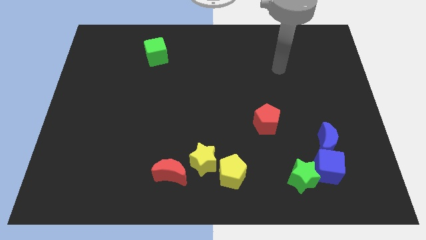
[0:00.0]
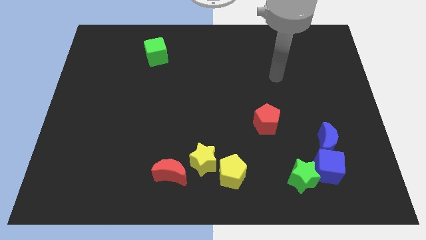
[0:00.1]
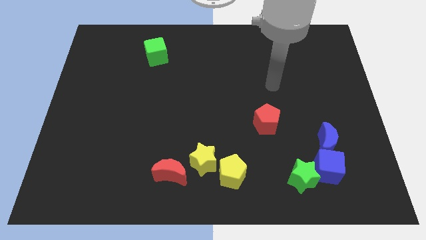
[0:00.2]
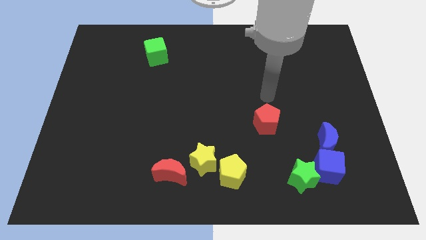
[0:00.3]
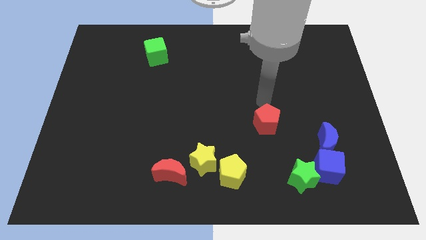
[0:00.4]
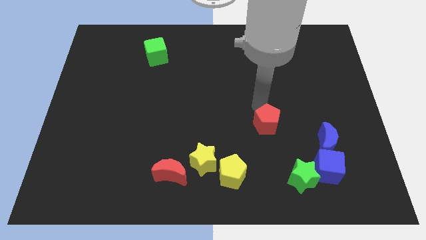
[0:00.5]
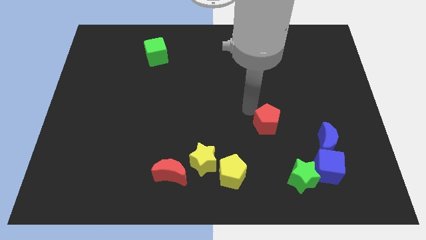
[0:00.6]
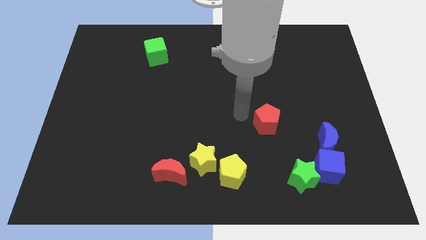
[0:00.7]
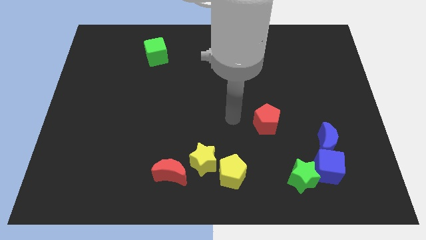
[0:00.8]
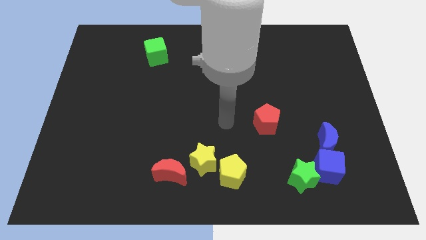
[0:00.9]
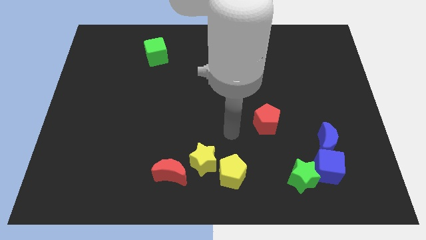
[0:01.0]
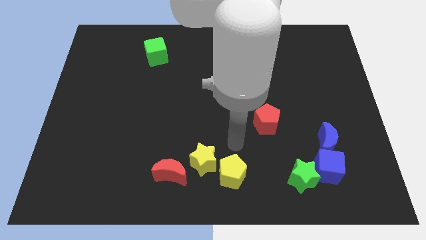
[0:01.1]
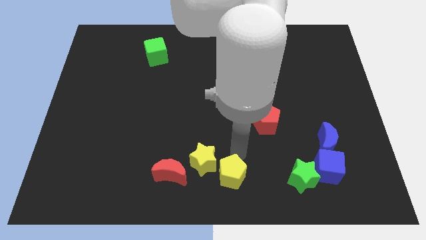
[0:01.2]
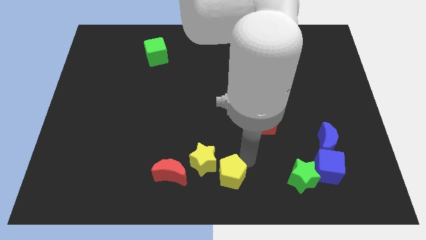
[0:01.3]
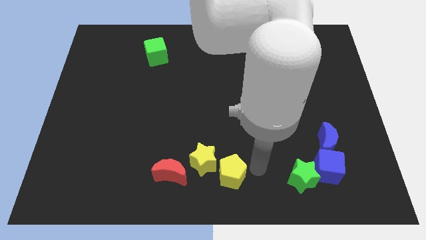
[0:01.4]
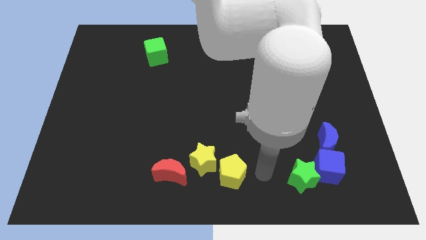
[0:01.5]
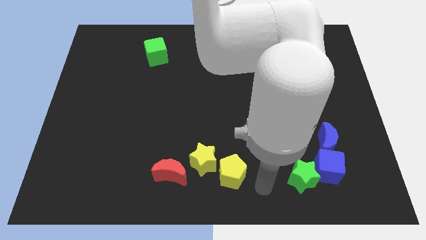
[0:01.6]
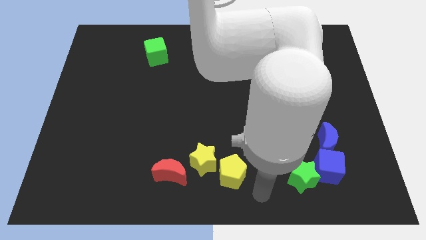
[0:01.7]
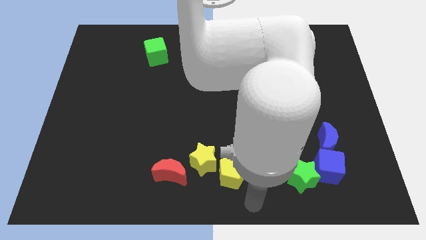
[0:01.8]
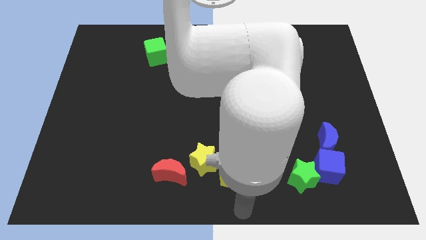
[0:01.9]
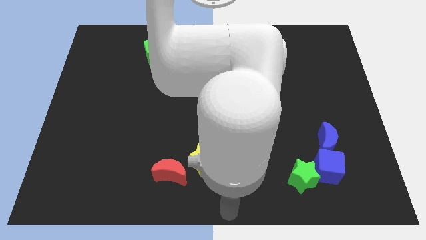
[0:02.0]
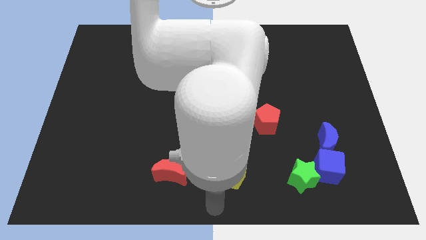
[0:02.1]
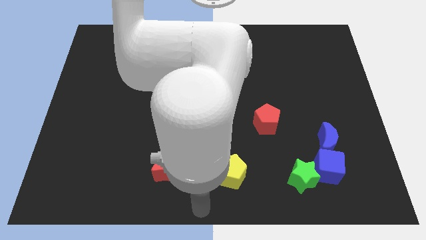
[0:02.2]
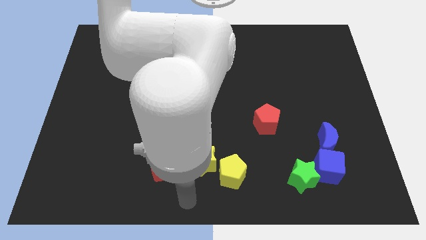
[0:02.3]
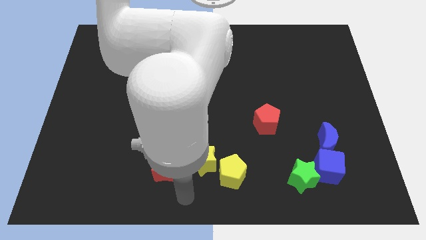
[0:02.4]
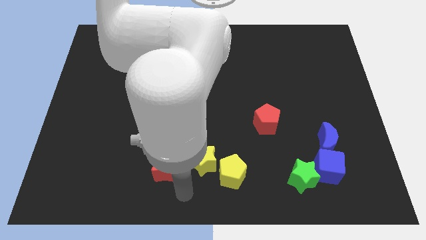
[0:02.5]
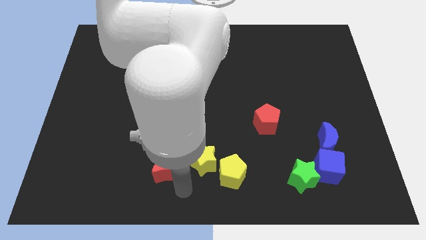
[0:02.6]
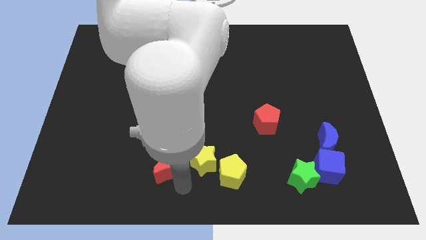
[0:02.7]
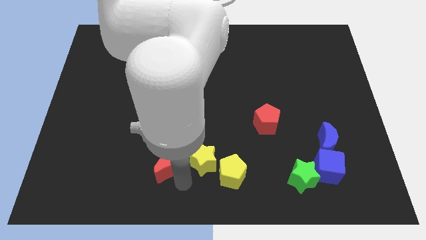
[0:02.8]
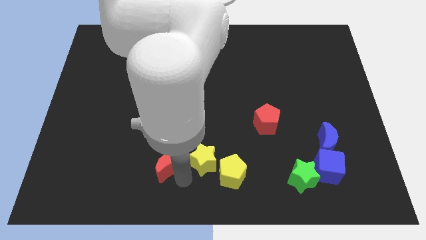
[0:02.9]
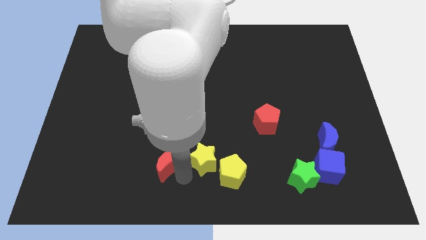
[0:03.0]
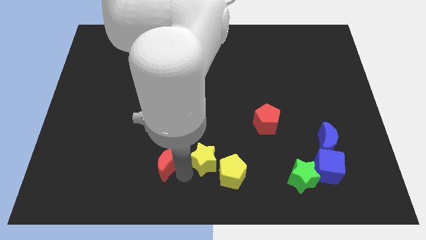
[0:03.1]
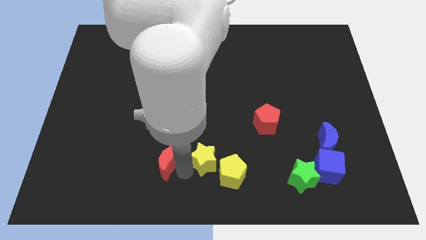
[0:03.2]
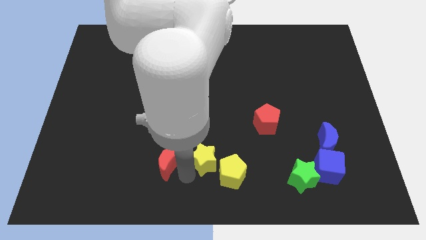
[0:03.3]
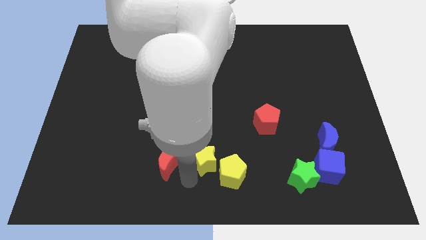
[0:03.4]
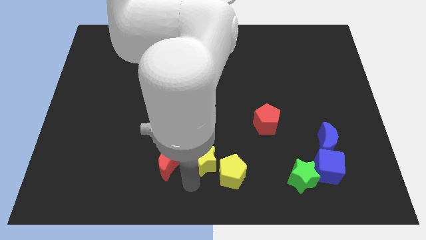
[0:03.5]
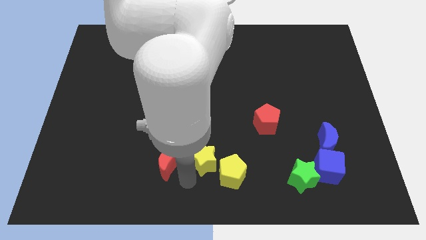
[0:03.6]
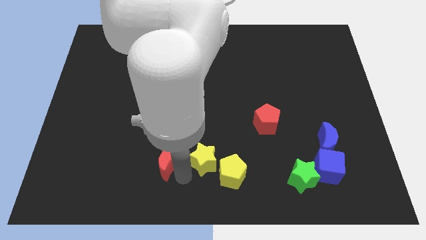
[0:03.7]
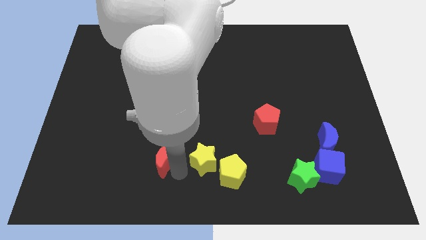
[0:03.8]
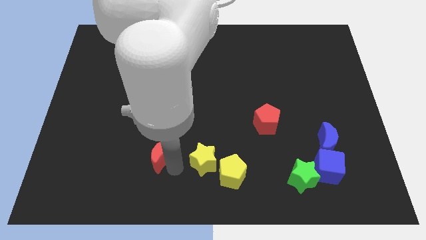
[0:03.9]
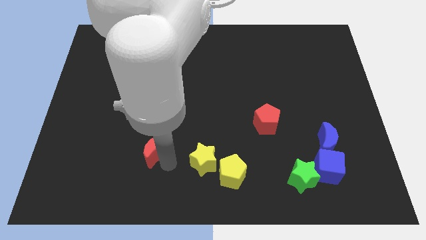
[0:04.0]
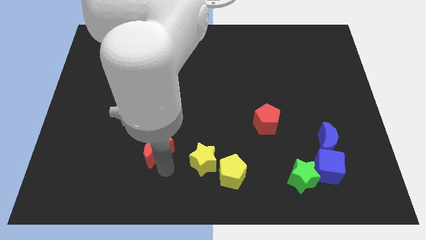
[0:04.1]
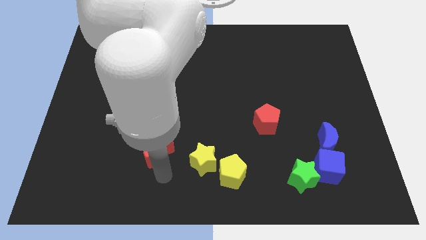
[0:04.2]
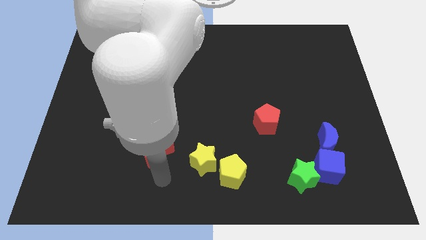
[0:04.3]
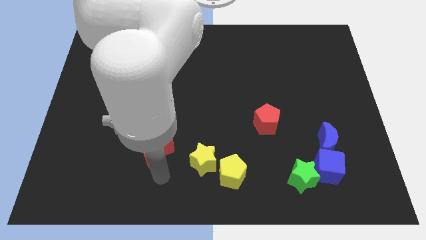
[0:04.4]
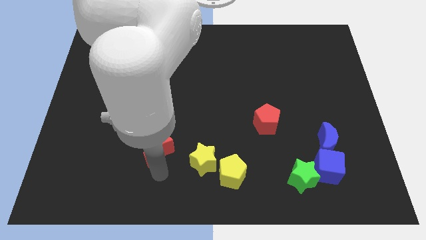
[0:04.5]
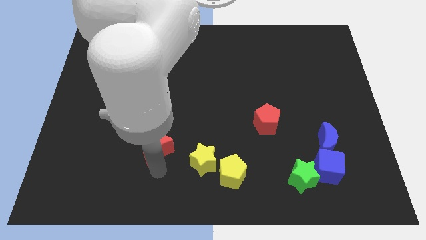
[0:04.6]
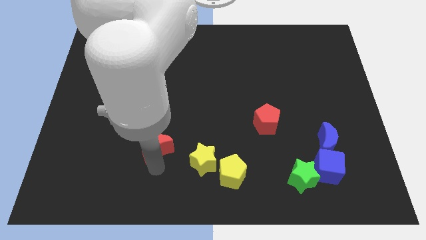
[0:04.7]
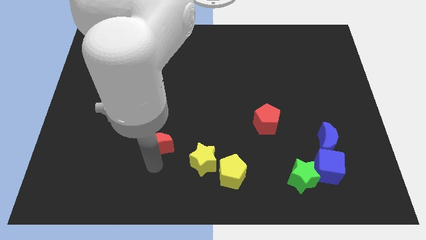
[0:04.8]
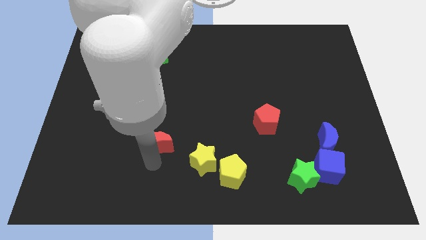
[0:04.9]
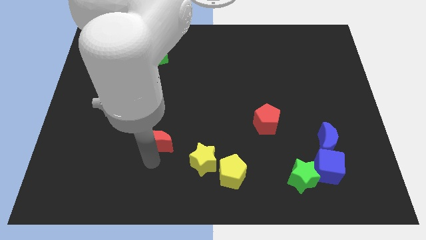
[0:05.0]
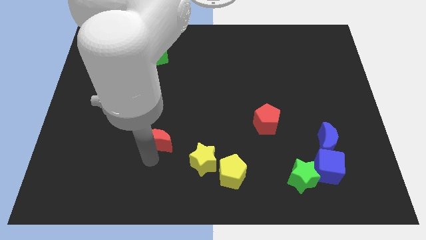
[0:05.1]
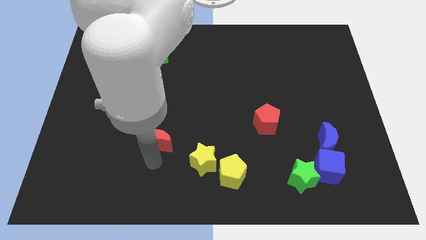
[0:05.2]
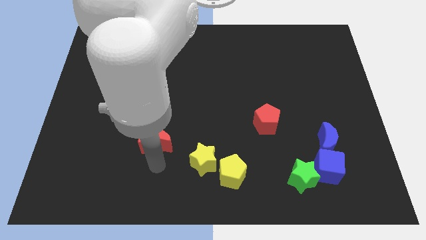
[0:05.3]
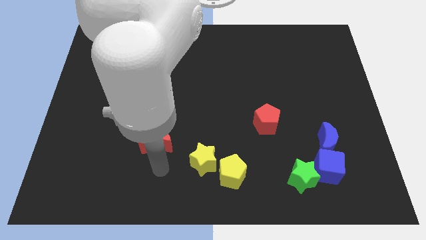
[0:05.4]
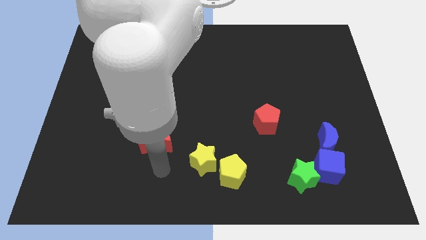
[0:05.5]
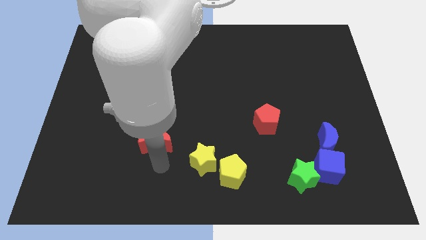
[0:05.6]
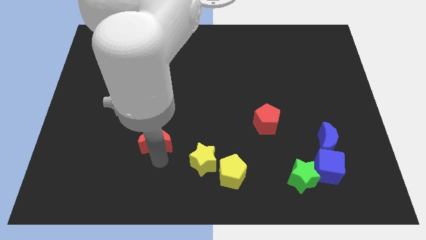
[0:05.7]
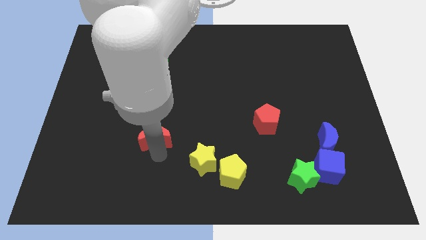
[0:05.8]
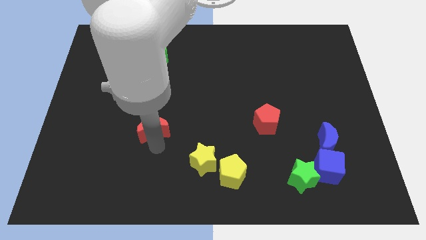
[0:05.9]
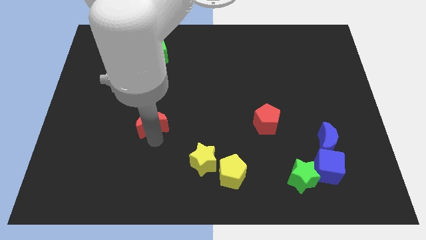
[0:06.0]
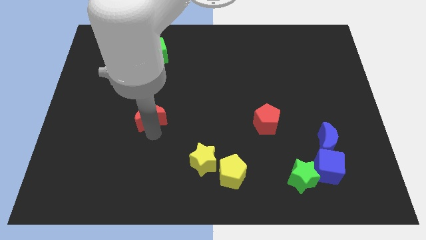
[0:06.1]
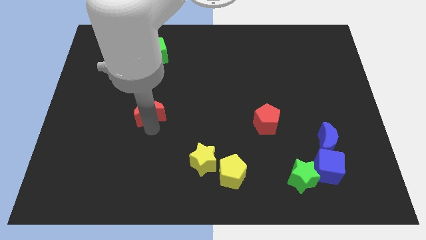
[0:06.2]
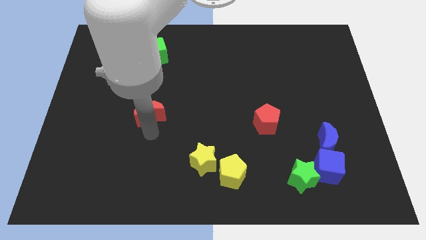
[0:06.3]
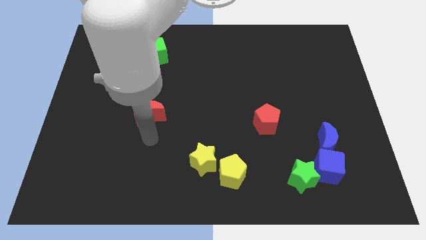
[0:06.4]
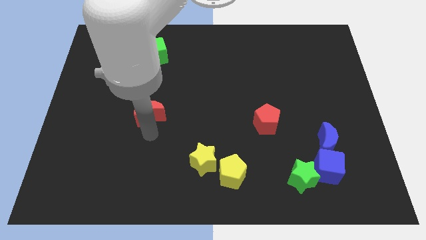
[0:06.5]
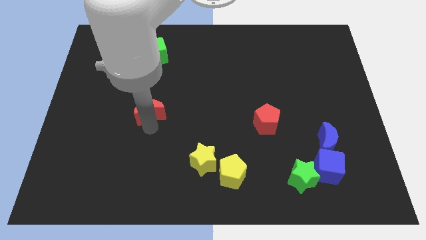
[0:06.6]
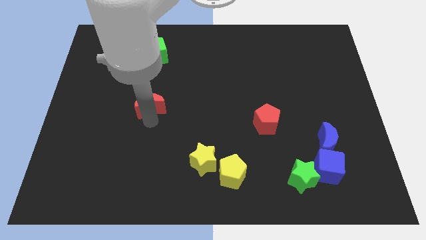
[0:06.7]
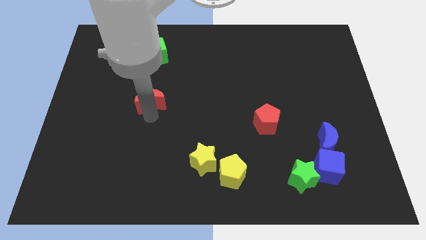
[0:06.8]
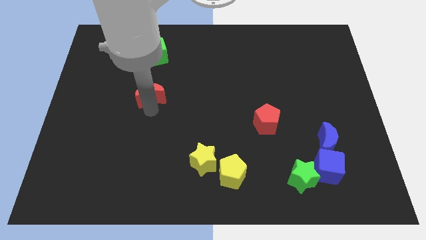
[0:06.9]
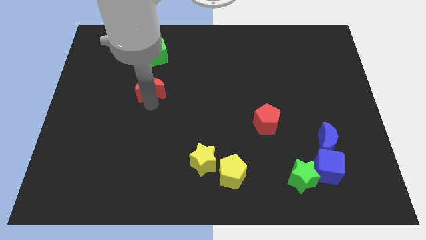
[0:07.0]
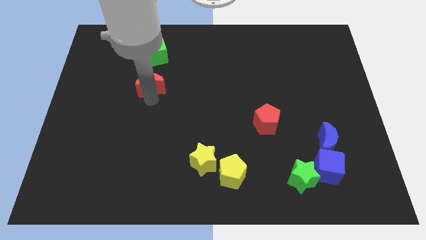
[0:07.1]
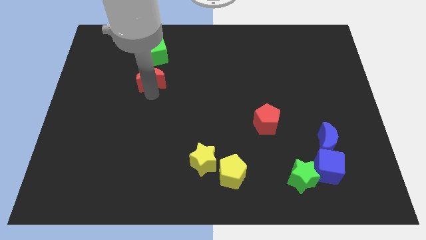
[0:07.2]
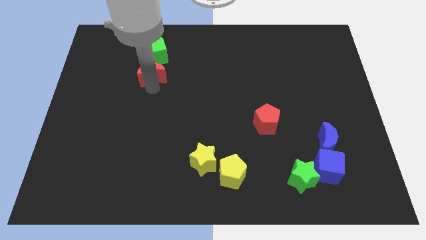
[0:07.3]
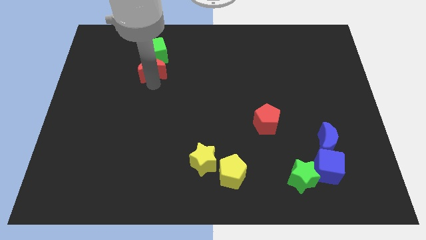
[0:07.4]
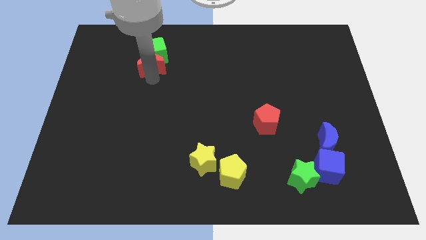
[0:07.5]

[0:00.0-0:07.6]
move the red moon close to the green cube
